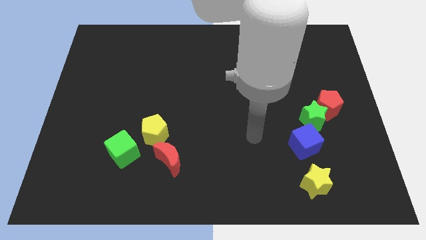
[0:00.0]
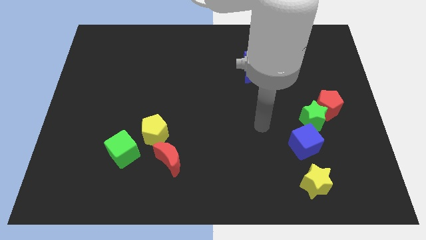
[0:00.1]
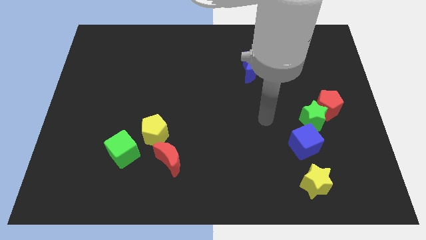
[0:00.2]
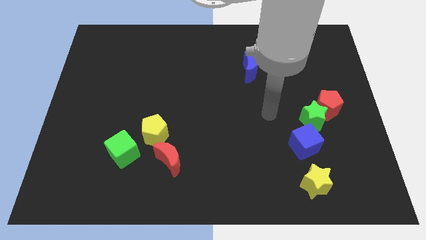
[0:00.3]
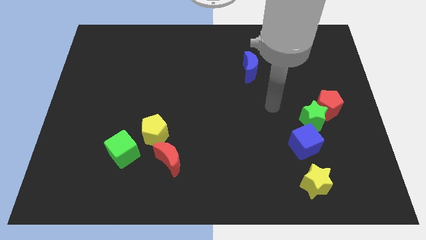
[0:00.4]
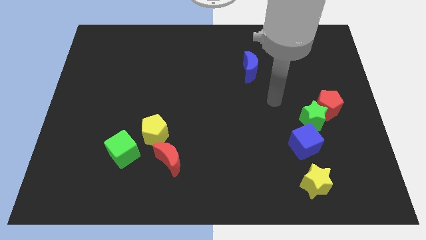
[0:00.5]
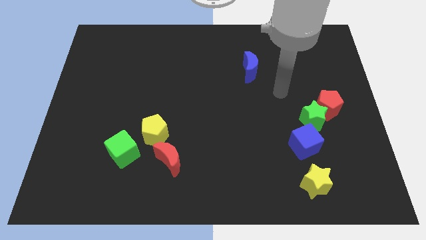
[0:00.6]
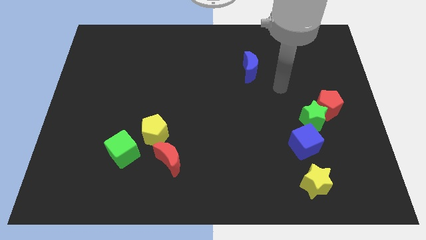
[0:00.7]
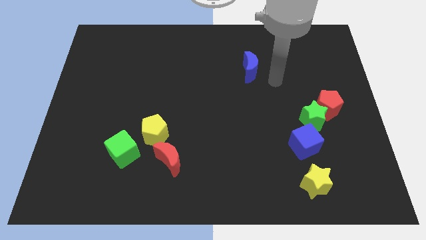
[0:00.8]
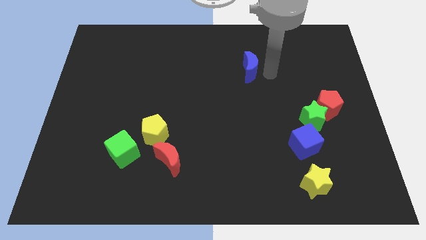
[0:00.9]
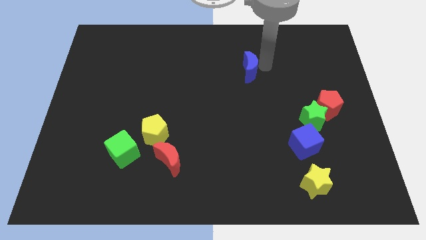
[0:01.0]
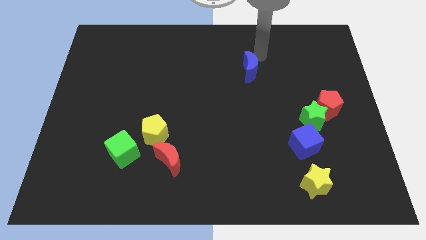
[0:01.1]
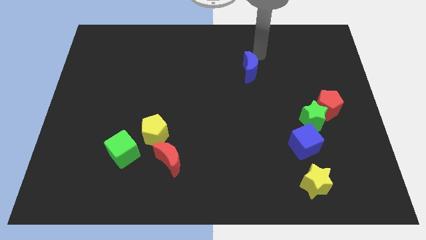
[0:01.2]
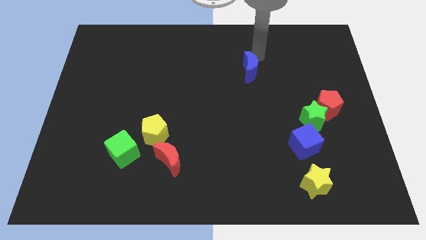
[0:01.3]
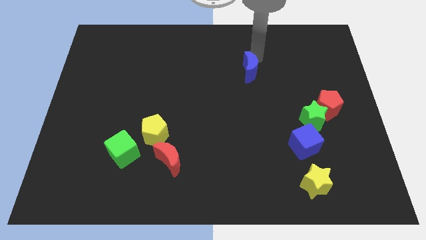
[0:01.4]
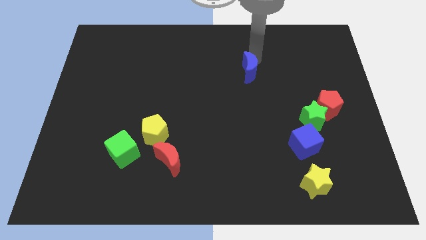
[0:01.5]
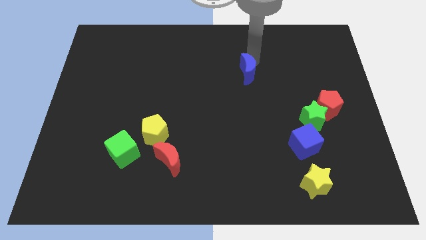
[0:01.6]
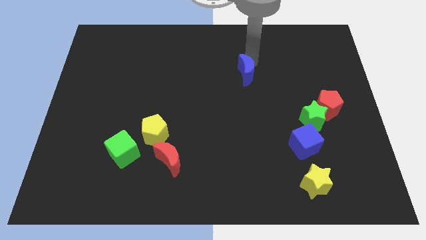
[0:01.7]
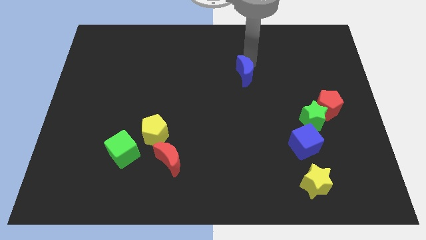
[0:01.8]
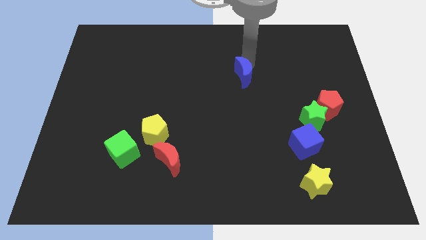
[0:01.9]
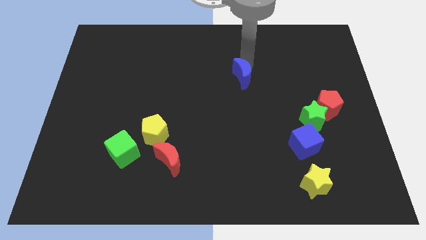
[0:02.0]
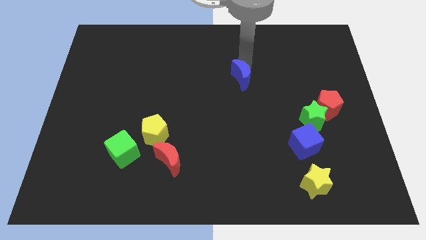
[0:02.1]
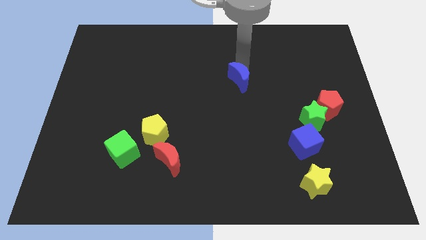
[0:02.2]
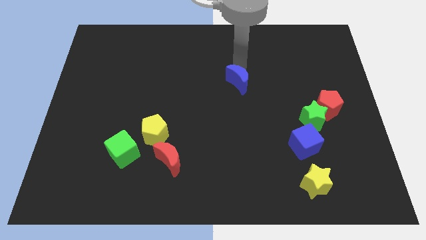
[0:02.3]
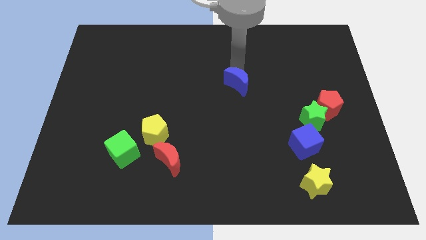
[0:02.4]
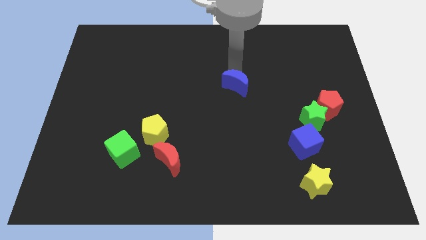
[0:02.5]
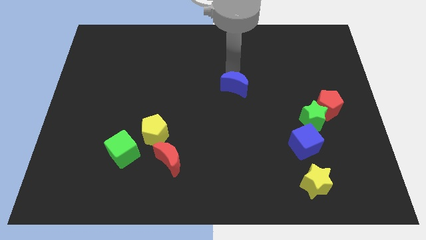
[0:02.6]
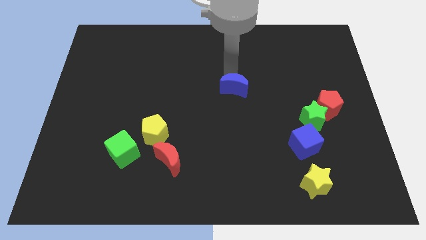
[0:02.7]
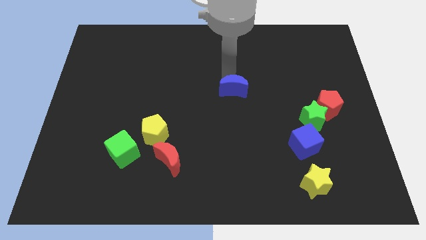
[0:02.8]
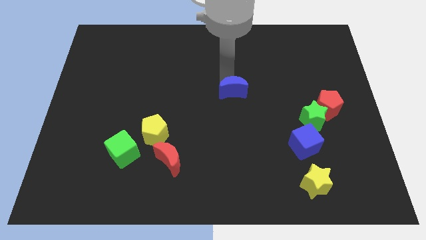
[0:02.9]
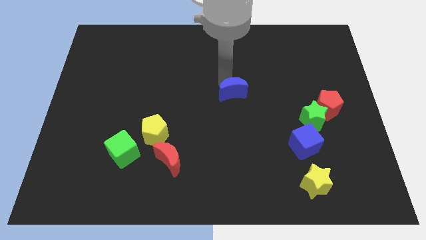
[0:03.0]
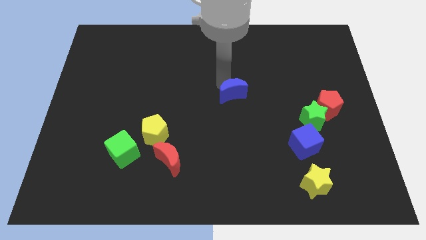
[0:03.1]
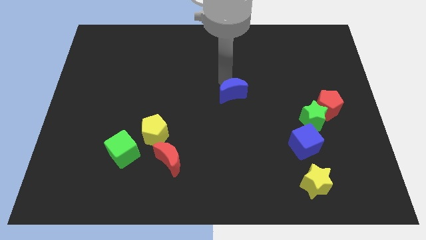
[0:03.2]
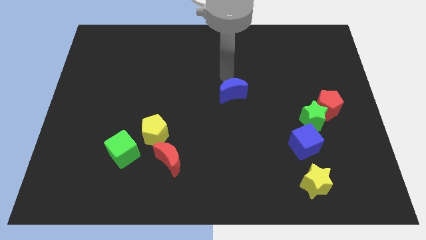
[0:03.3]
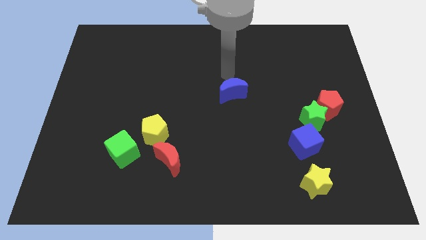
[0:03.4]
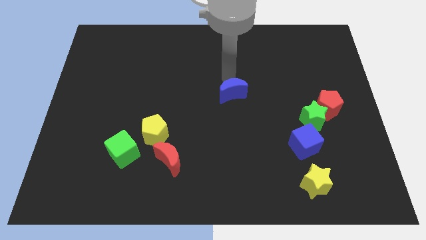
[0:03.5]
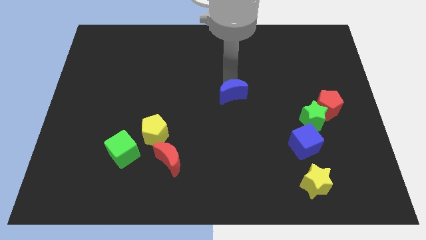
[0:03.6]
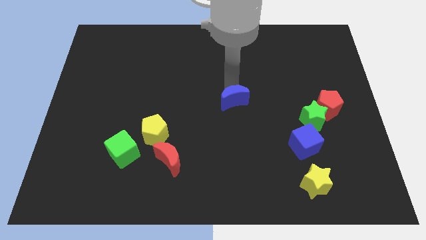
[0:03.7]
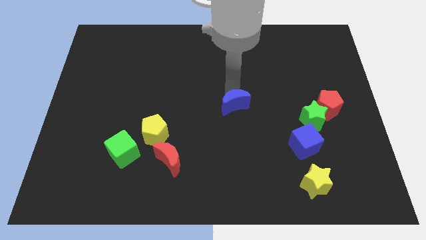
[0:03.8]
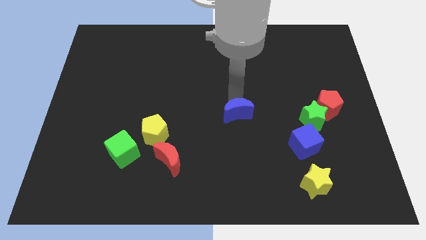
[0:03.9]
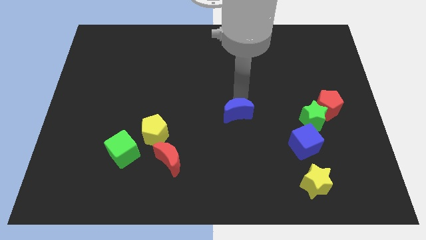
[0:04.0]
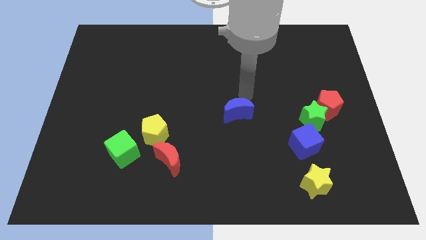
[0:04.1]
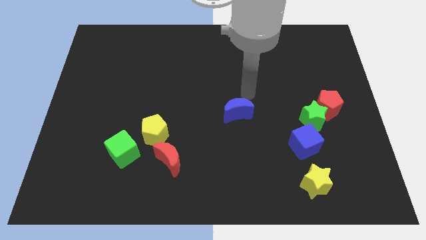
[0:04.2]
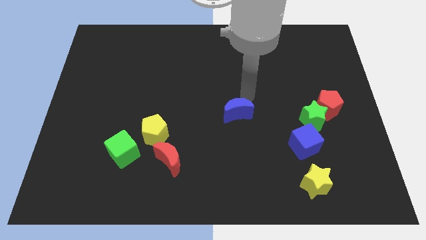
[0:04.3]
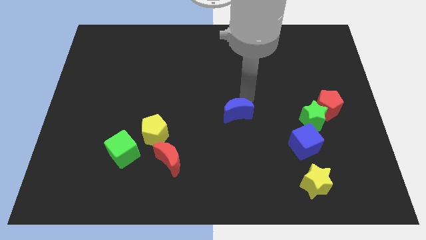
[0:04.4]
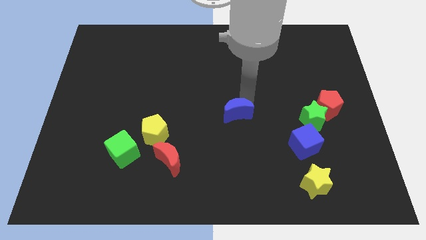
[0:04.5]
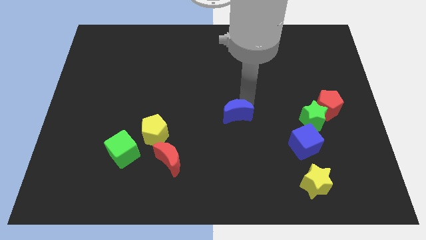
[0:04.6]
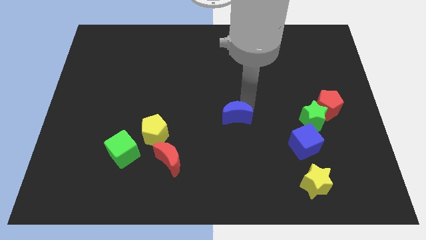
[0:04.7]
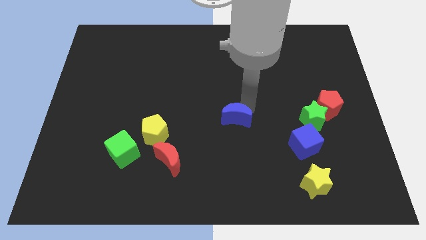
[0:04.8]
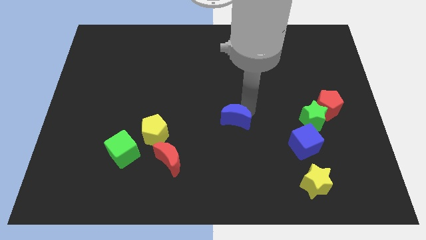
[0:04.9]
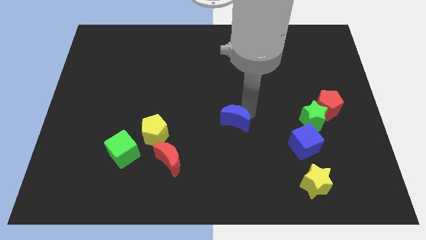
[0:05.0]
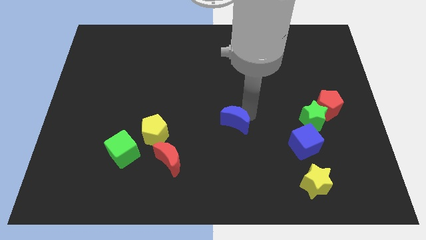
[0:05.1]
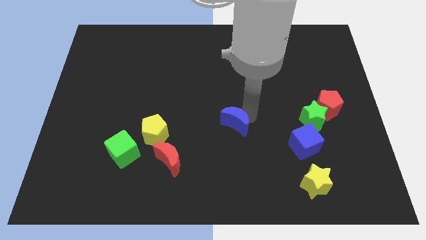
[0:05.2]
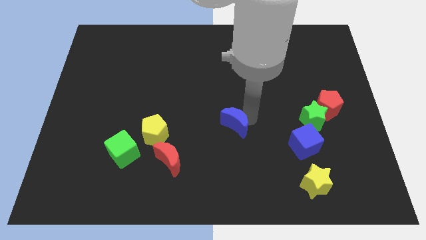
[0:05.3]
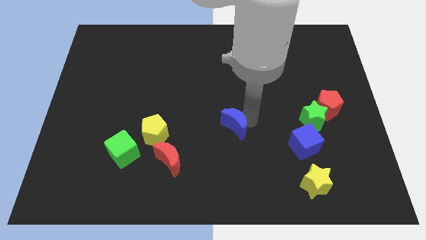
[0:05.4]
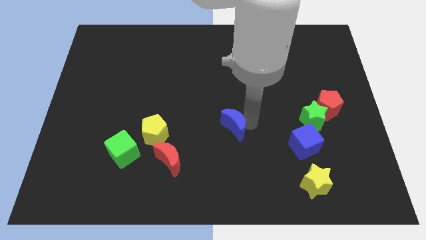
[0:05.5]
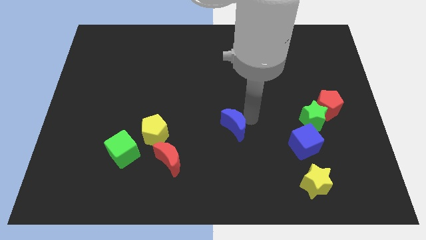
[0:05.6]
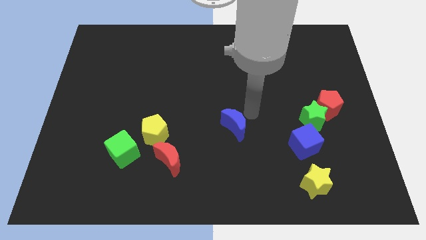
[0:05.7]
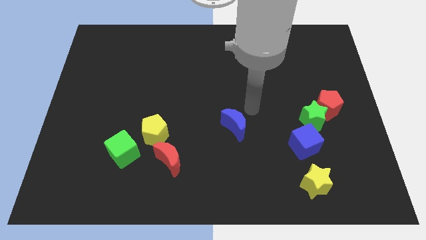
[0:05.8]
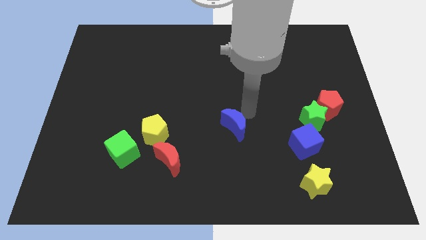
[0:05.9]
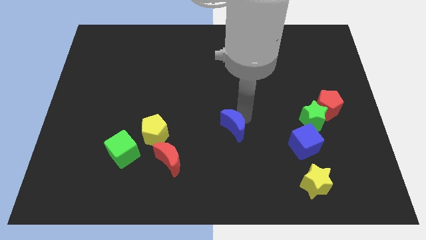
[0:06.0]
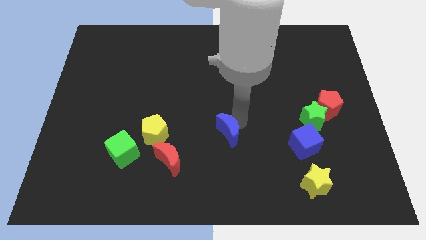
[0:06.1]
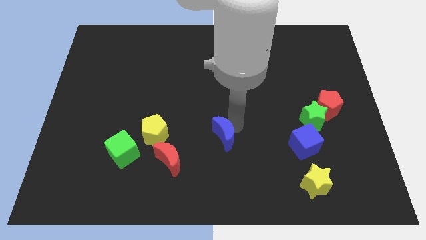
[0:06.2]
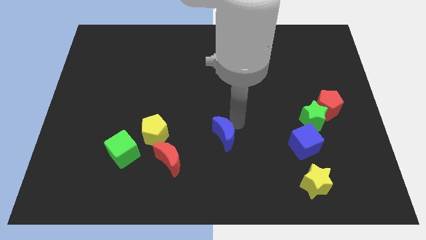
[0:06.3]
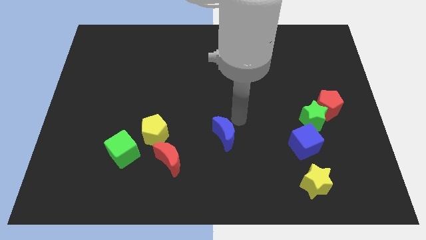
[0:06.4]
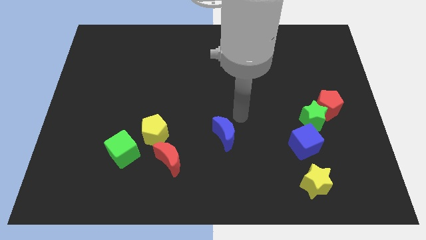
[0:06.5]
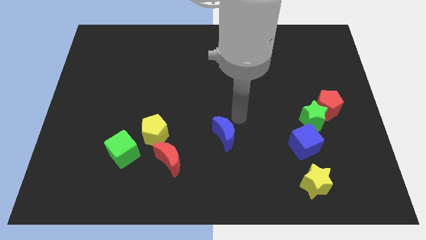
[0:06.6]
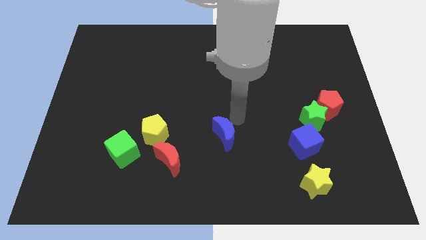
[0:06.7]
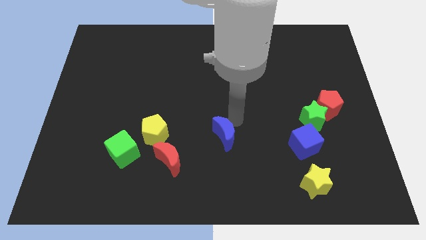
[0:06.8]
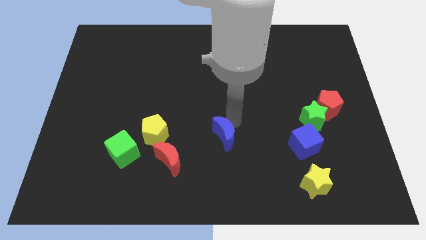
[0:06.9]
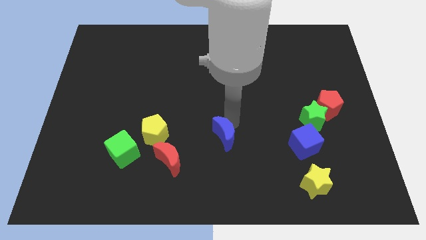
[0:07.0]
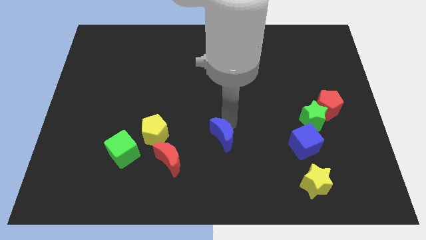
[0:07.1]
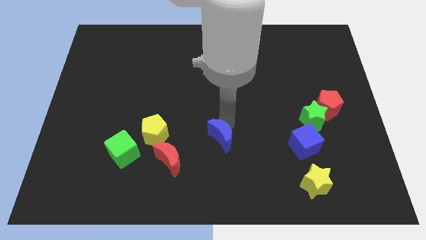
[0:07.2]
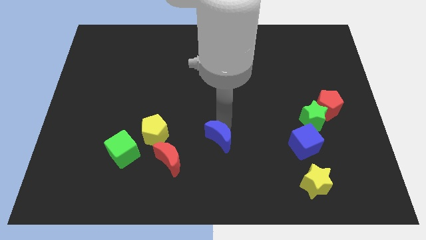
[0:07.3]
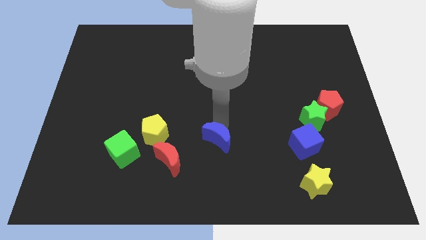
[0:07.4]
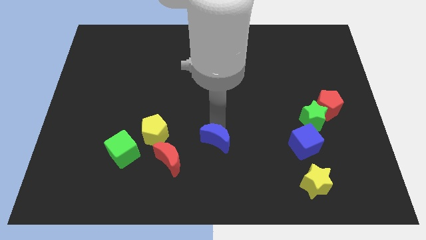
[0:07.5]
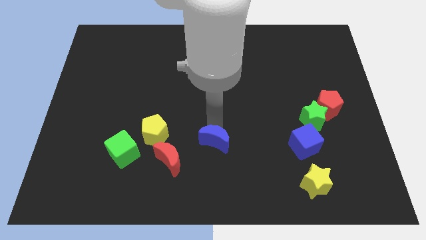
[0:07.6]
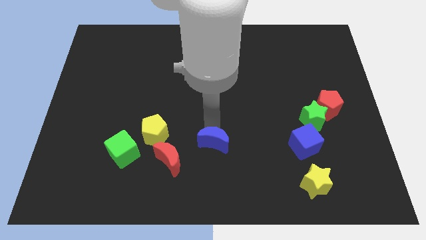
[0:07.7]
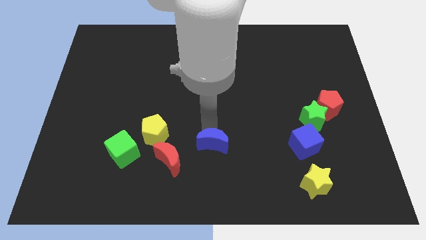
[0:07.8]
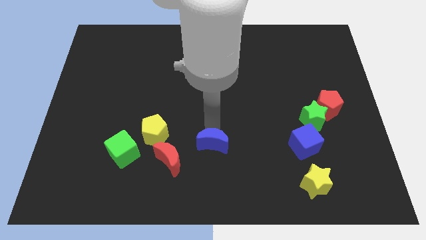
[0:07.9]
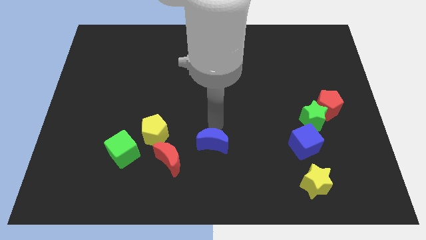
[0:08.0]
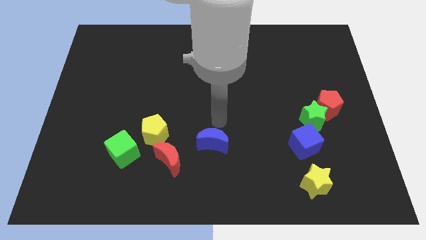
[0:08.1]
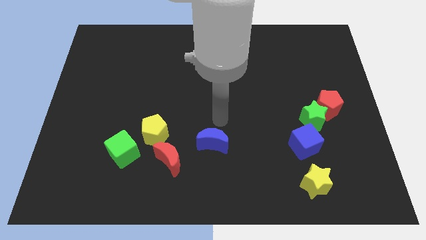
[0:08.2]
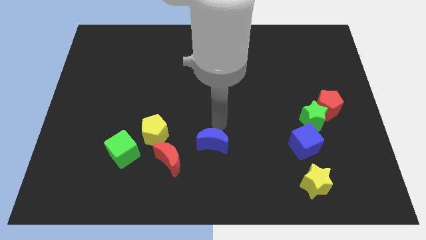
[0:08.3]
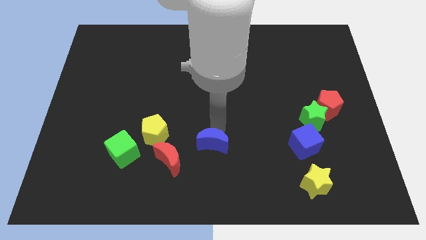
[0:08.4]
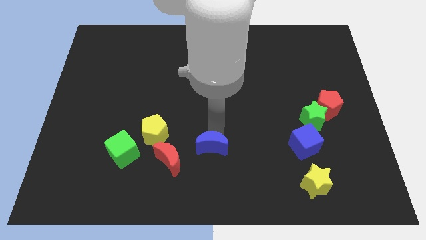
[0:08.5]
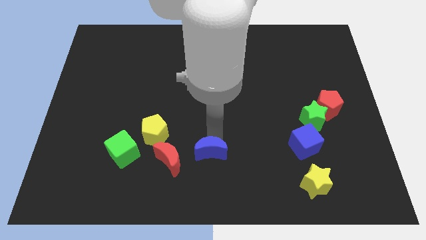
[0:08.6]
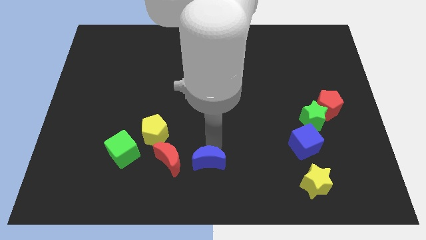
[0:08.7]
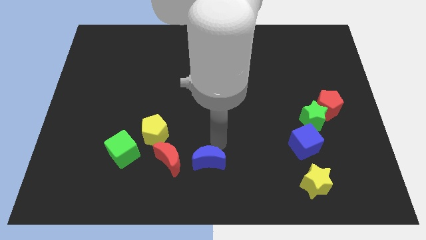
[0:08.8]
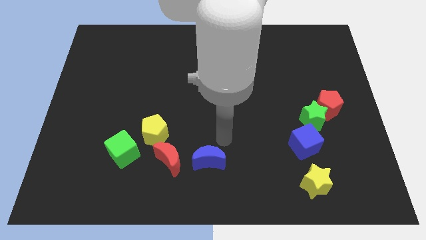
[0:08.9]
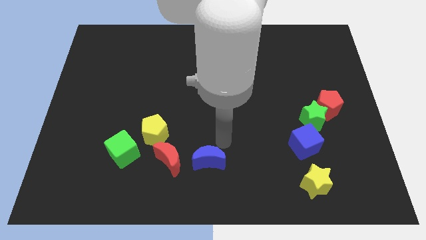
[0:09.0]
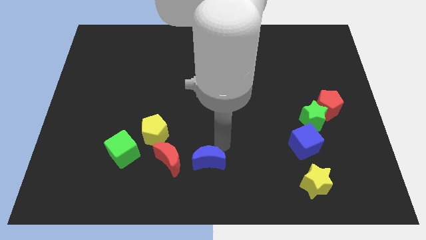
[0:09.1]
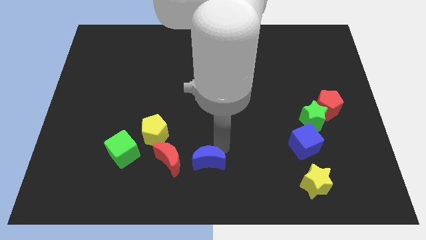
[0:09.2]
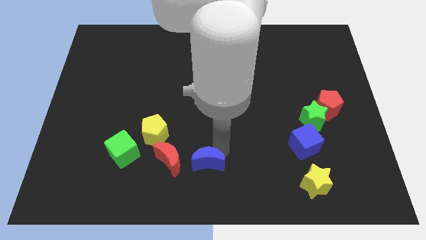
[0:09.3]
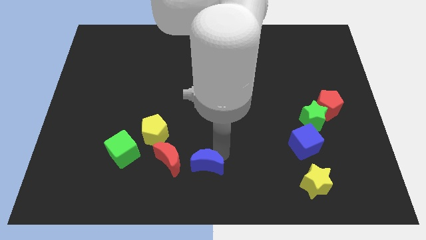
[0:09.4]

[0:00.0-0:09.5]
slide the blue moon to the bottom right of the red moon
